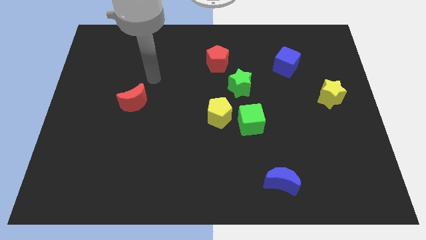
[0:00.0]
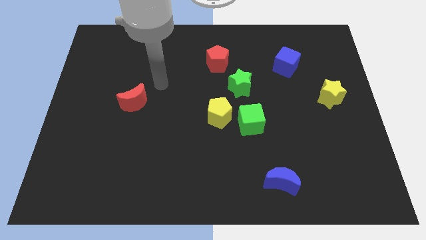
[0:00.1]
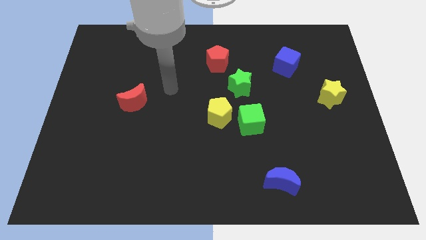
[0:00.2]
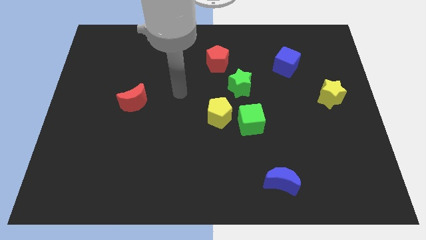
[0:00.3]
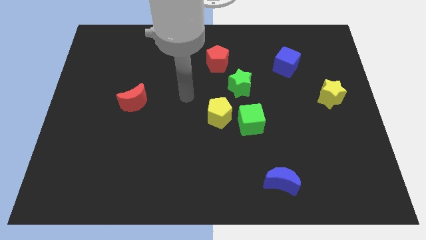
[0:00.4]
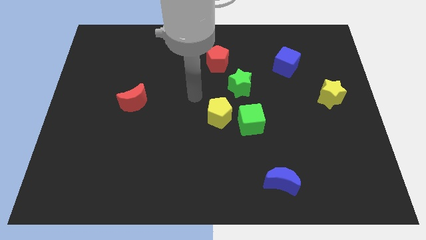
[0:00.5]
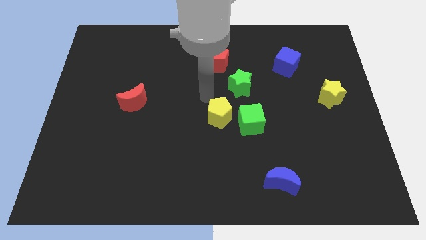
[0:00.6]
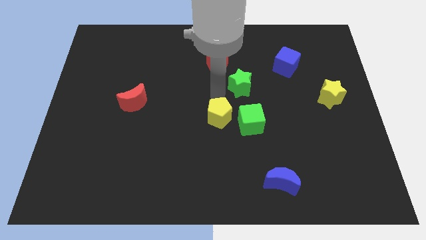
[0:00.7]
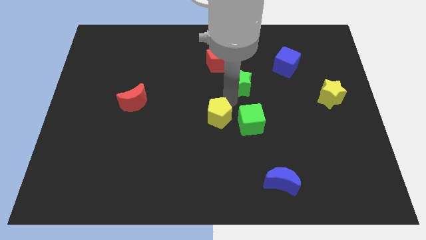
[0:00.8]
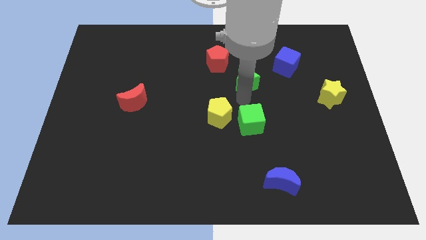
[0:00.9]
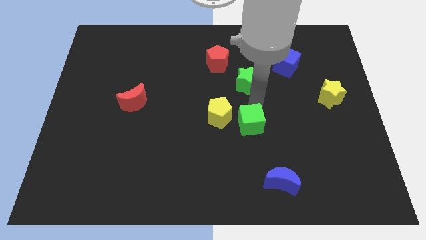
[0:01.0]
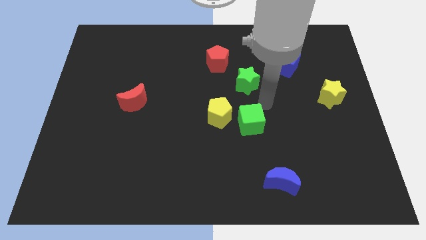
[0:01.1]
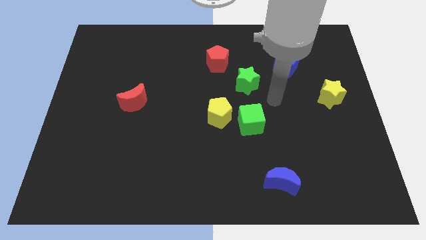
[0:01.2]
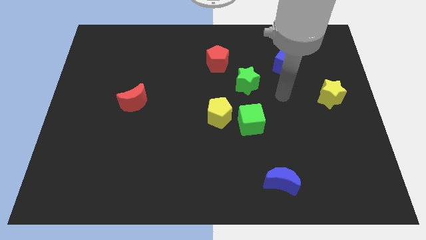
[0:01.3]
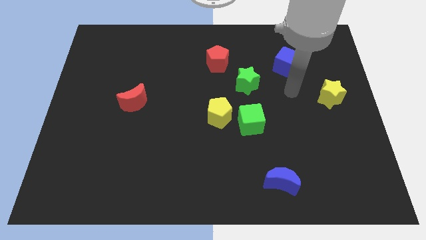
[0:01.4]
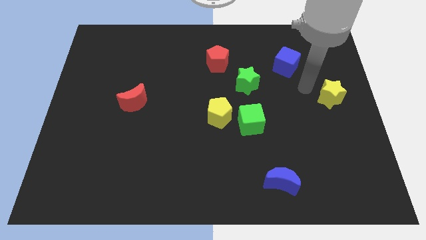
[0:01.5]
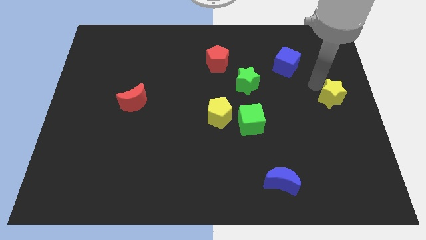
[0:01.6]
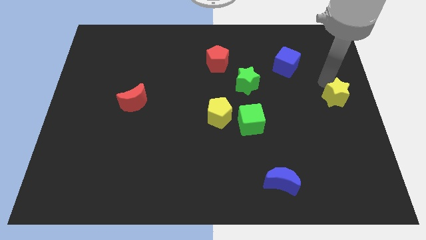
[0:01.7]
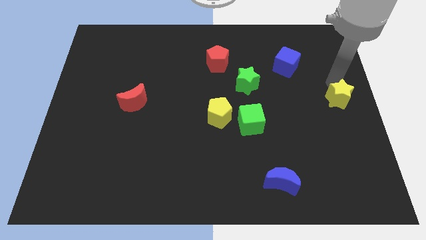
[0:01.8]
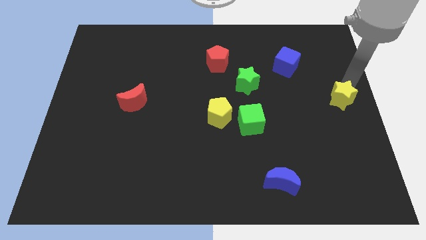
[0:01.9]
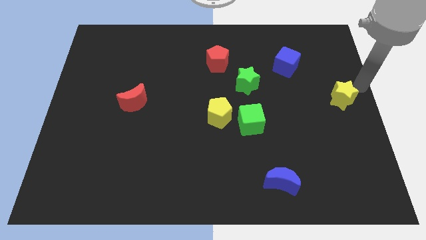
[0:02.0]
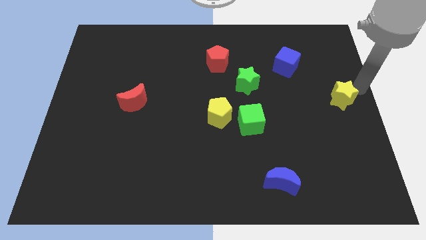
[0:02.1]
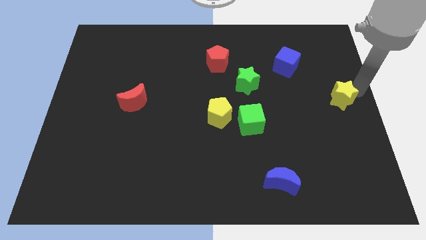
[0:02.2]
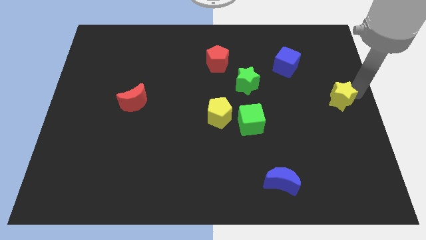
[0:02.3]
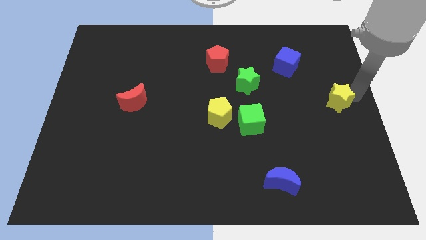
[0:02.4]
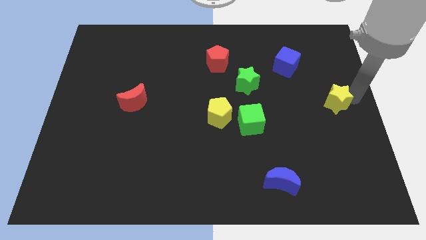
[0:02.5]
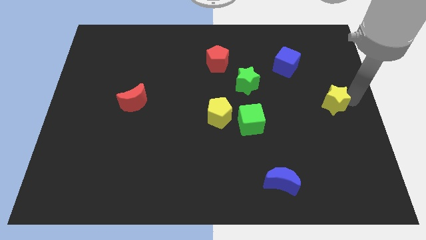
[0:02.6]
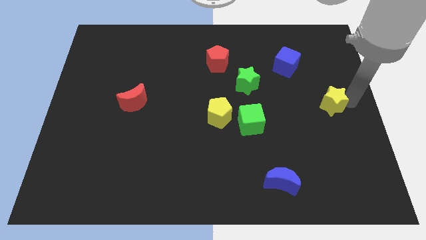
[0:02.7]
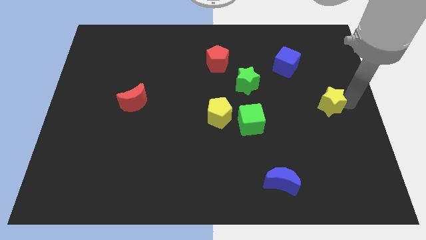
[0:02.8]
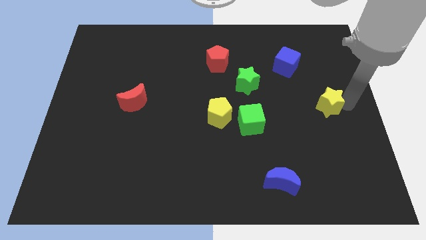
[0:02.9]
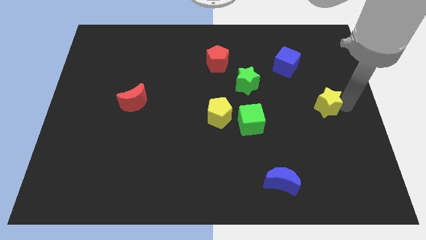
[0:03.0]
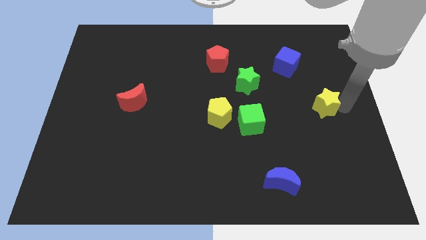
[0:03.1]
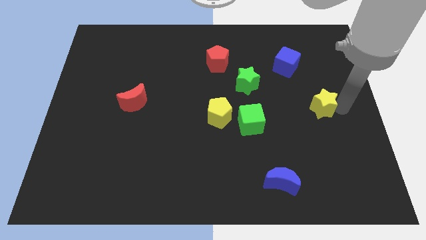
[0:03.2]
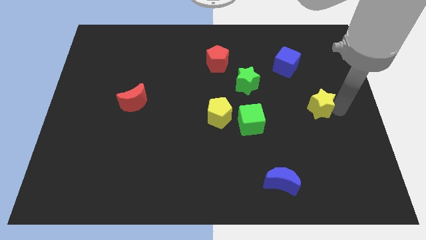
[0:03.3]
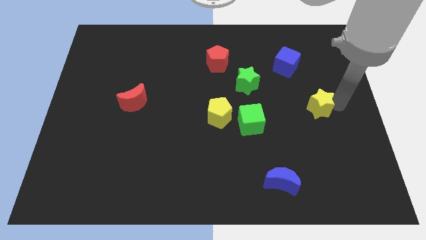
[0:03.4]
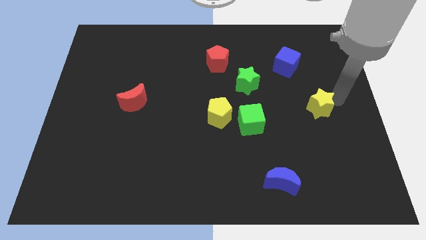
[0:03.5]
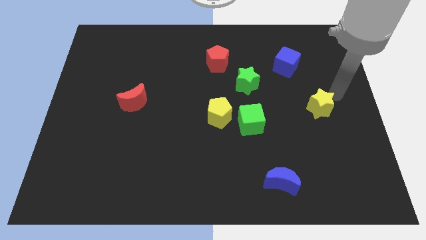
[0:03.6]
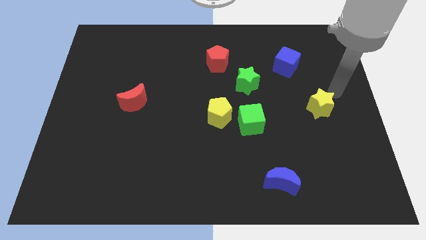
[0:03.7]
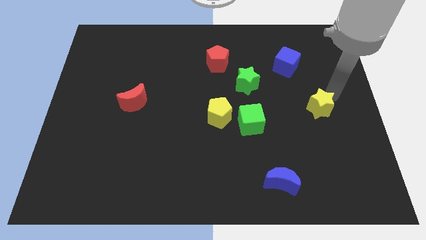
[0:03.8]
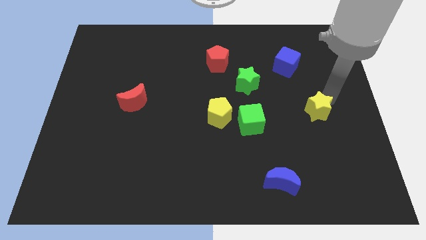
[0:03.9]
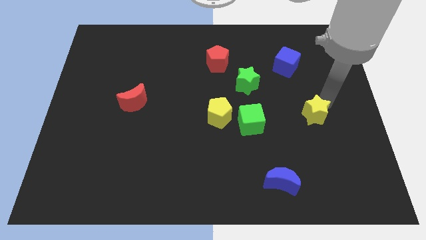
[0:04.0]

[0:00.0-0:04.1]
move the yellow star a little diagonally down and left

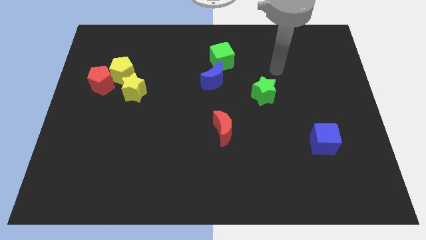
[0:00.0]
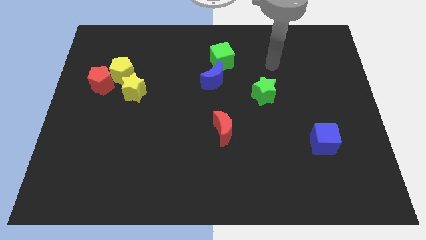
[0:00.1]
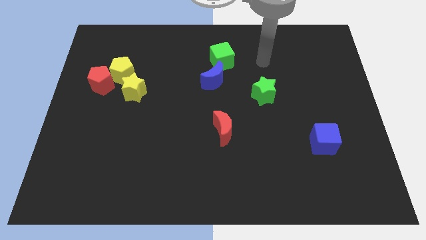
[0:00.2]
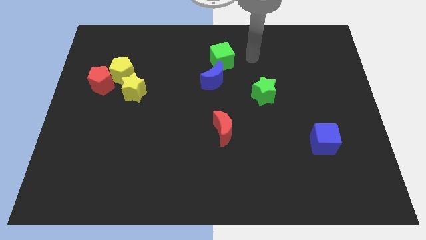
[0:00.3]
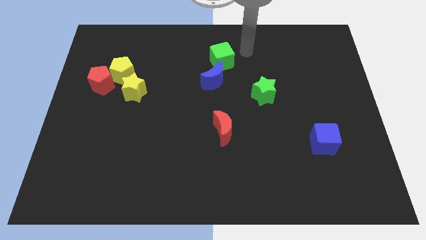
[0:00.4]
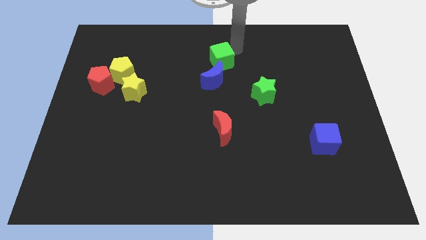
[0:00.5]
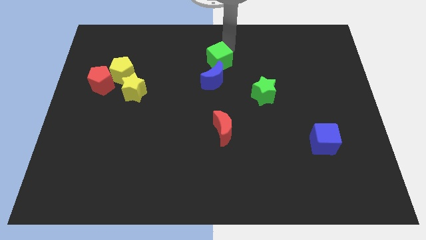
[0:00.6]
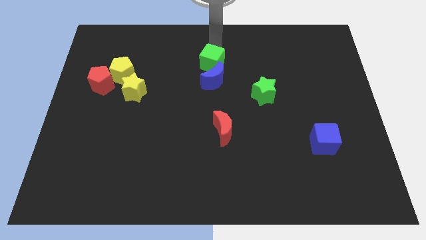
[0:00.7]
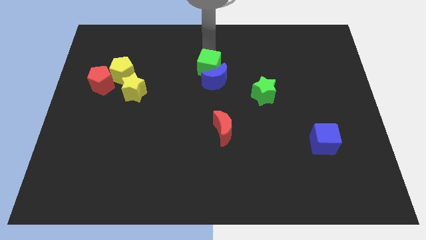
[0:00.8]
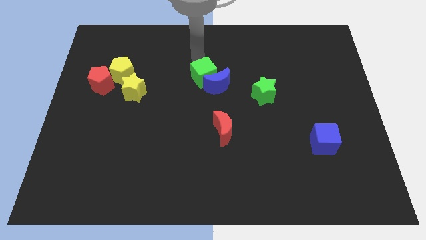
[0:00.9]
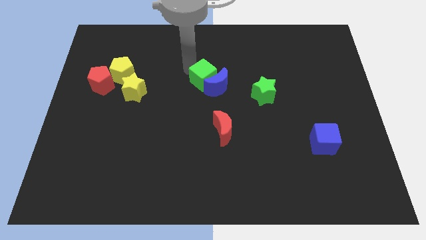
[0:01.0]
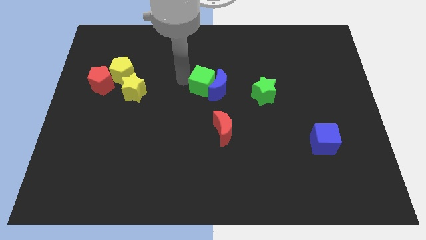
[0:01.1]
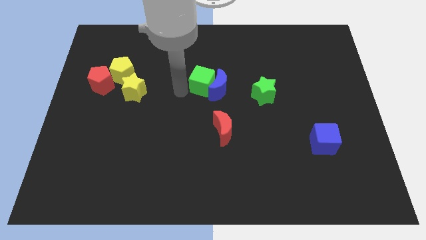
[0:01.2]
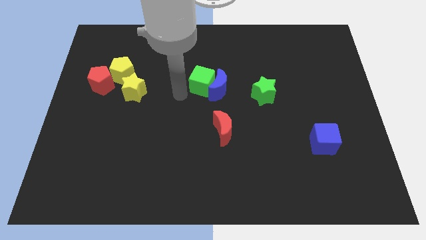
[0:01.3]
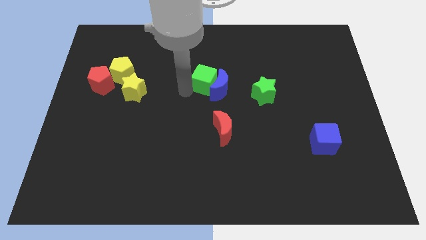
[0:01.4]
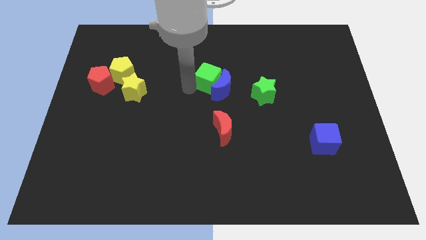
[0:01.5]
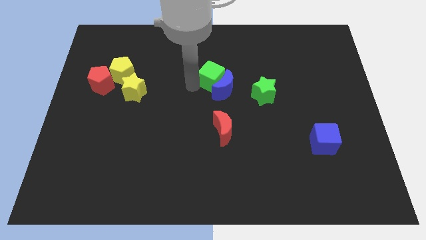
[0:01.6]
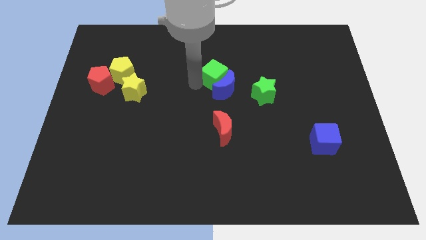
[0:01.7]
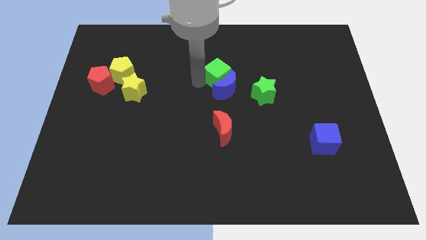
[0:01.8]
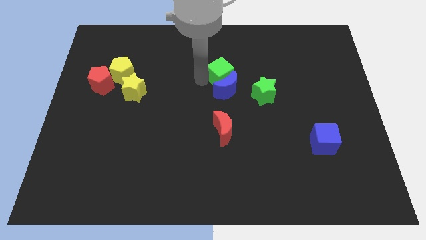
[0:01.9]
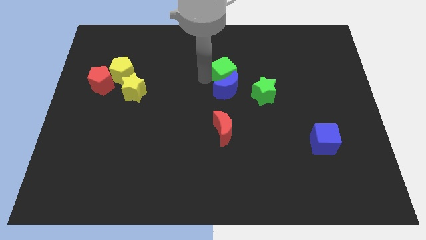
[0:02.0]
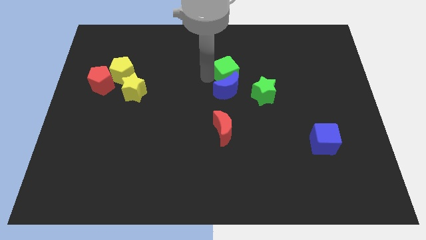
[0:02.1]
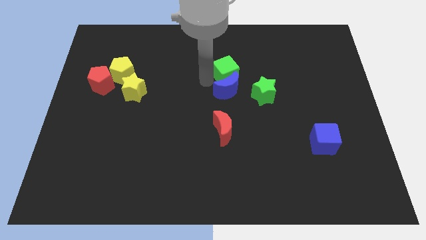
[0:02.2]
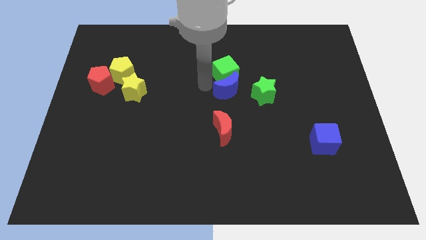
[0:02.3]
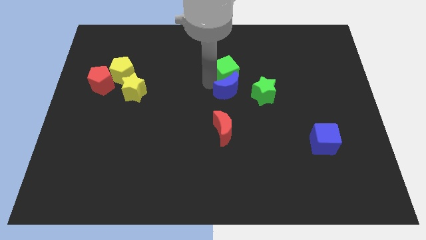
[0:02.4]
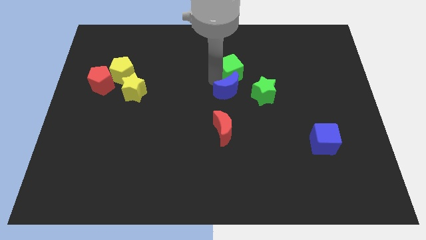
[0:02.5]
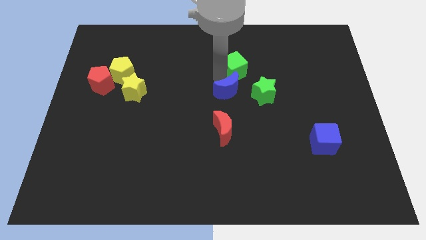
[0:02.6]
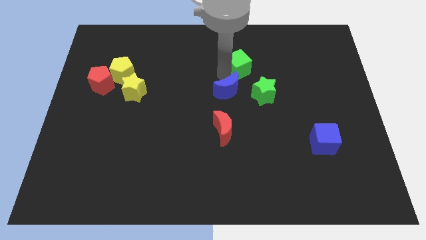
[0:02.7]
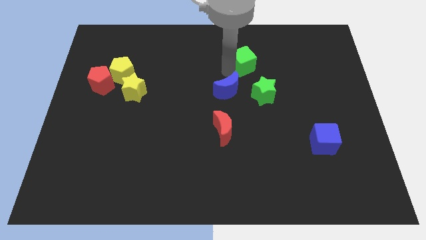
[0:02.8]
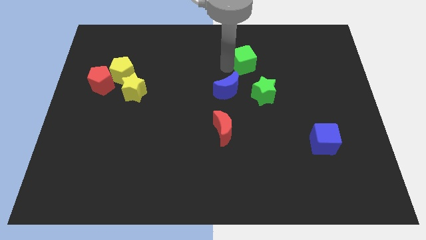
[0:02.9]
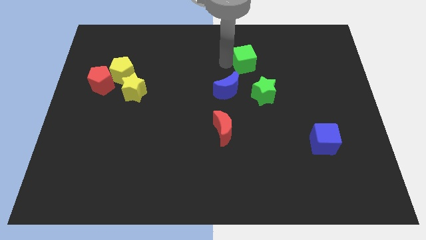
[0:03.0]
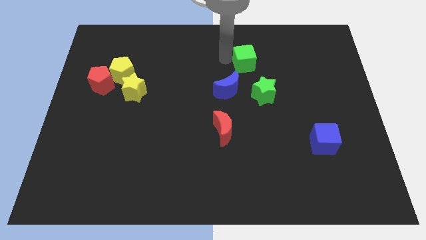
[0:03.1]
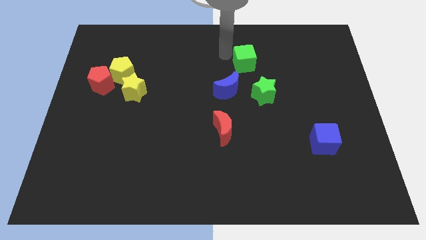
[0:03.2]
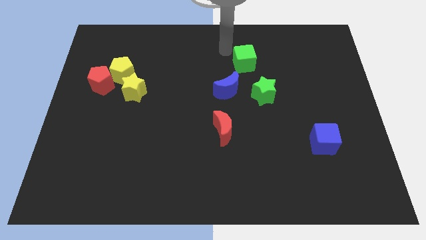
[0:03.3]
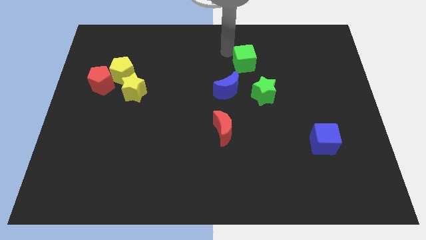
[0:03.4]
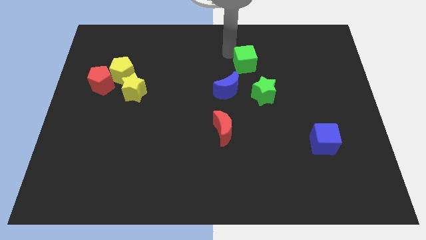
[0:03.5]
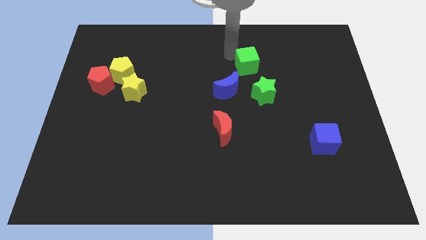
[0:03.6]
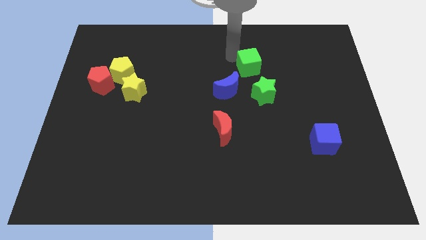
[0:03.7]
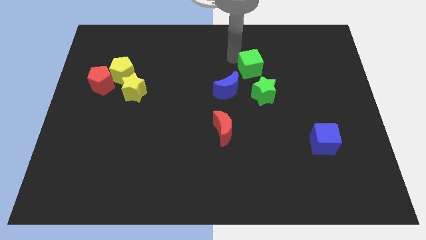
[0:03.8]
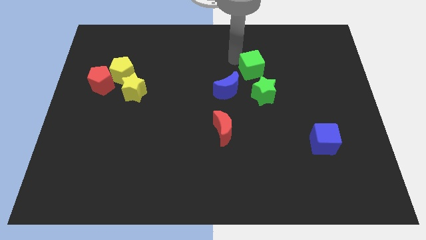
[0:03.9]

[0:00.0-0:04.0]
slightly move the green cube down and to the right
